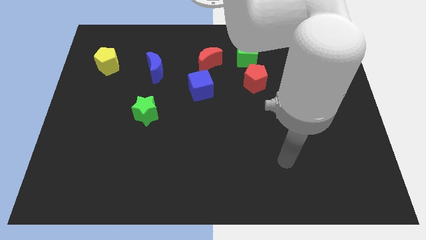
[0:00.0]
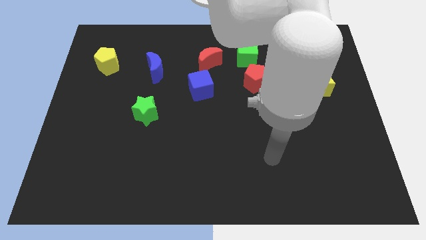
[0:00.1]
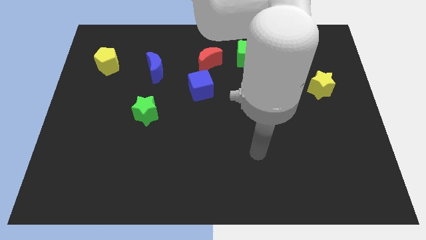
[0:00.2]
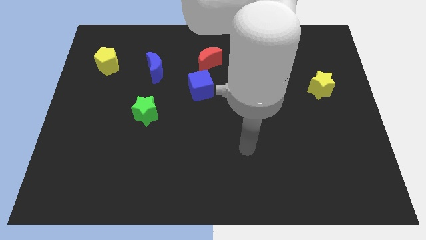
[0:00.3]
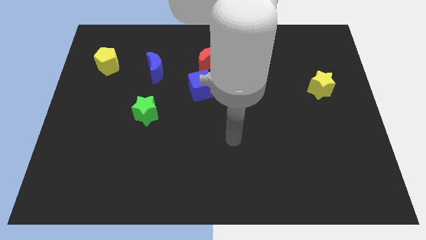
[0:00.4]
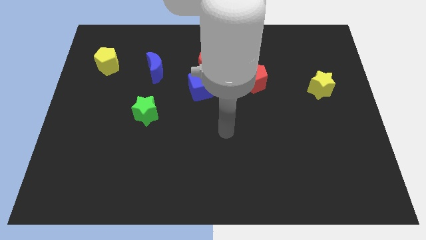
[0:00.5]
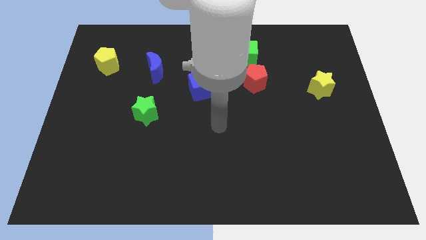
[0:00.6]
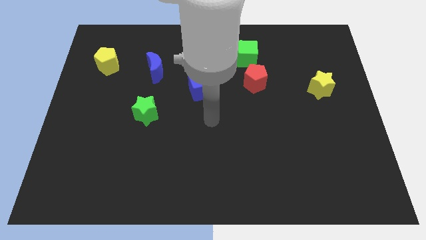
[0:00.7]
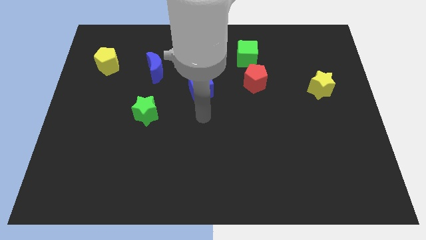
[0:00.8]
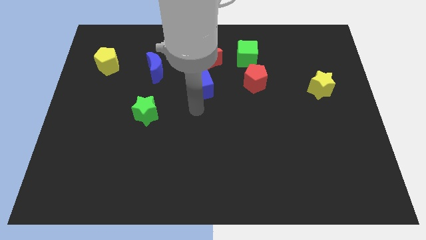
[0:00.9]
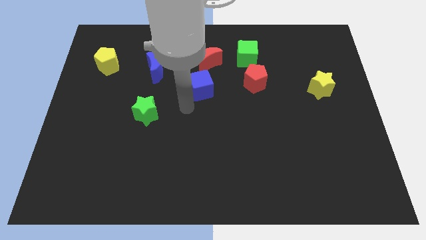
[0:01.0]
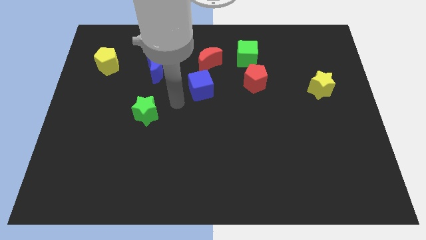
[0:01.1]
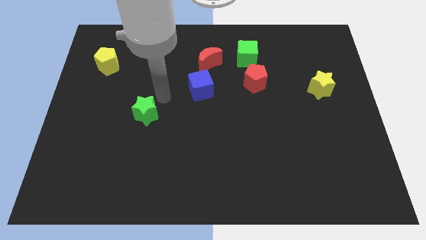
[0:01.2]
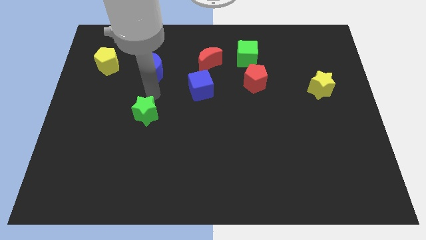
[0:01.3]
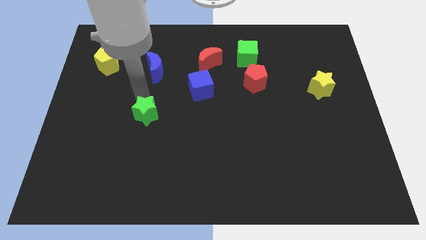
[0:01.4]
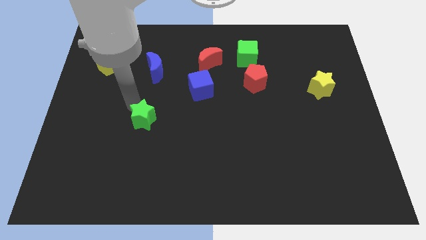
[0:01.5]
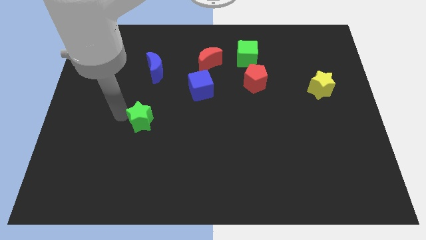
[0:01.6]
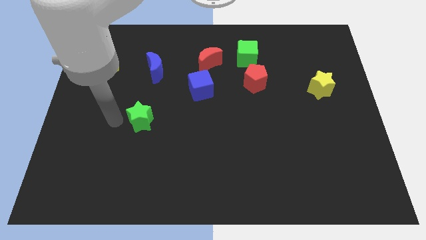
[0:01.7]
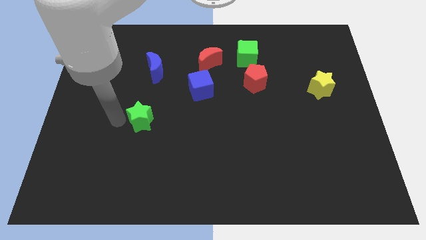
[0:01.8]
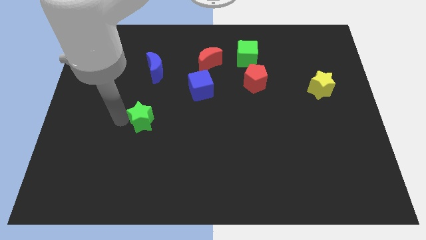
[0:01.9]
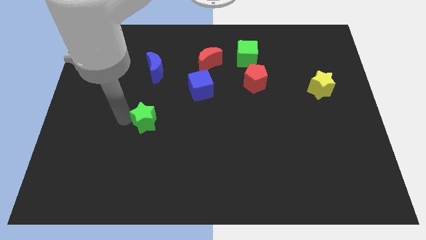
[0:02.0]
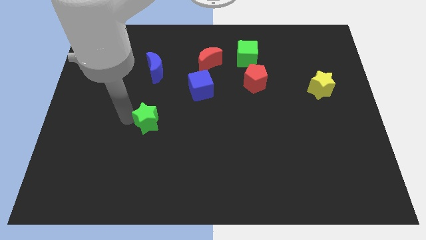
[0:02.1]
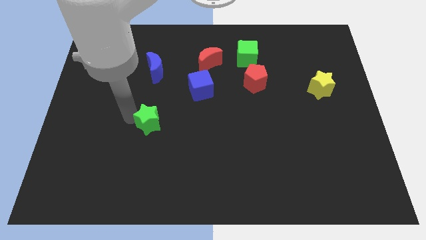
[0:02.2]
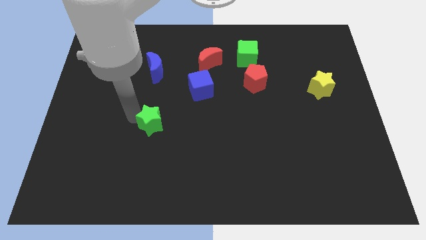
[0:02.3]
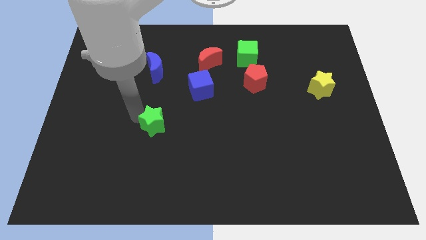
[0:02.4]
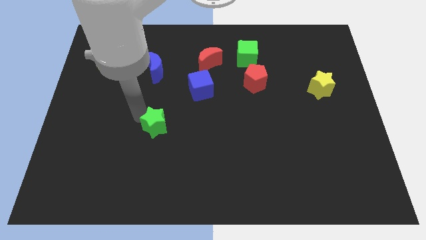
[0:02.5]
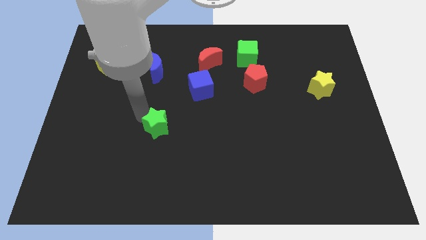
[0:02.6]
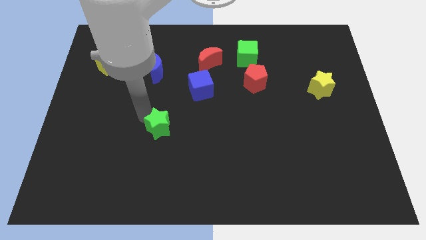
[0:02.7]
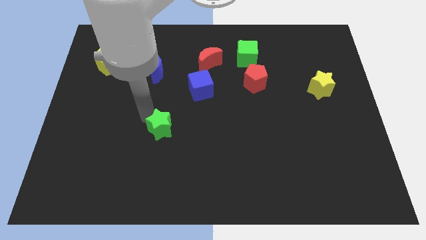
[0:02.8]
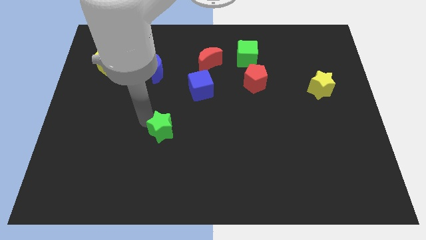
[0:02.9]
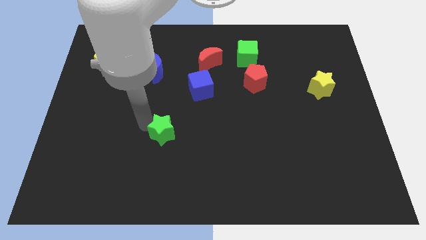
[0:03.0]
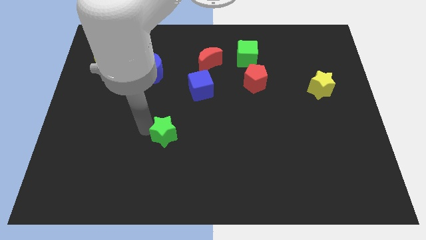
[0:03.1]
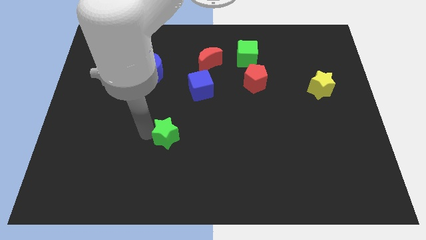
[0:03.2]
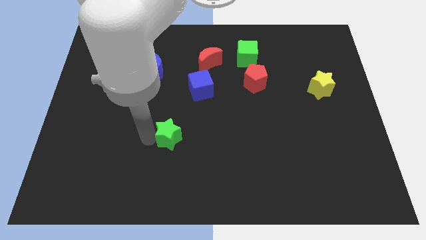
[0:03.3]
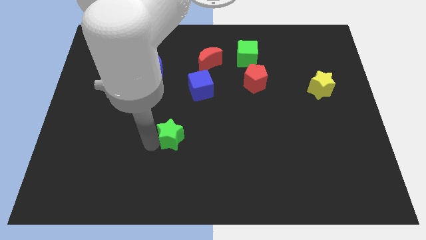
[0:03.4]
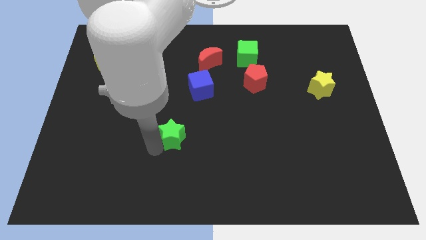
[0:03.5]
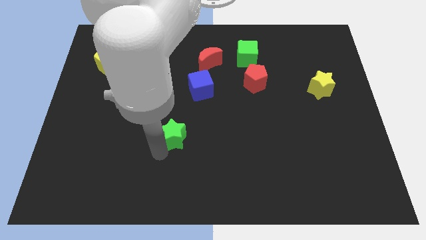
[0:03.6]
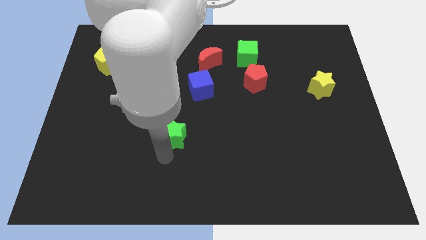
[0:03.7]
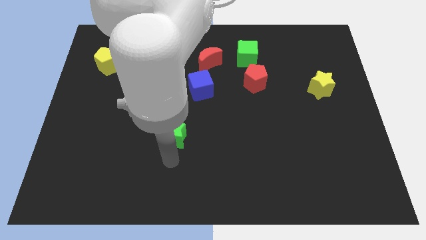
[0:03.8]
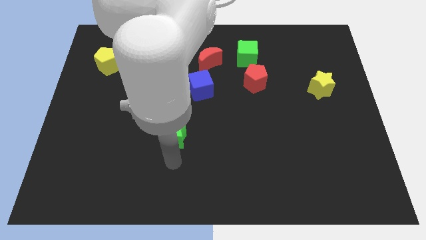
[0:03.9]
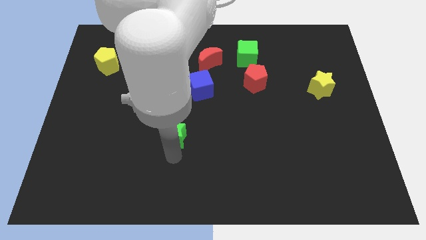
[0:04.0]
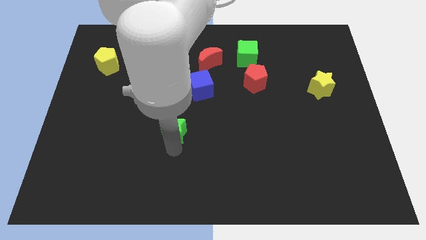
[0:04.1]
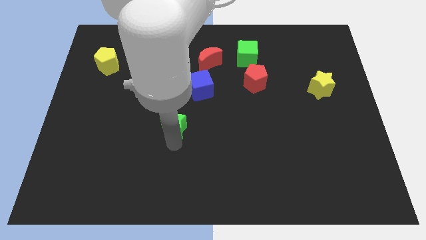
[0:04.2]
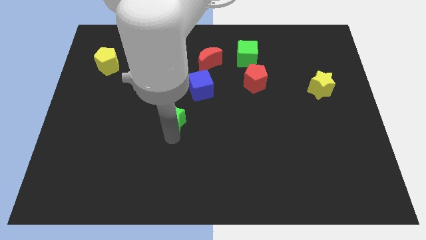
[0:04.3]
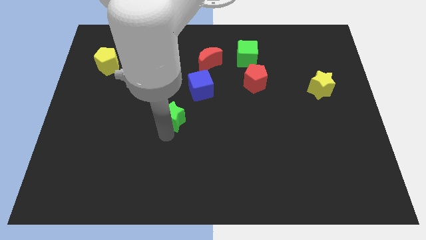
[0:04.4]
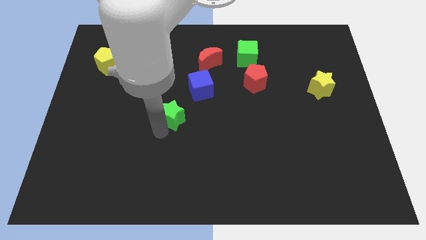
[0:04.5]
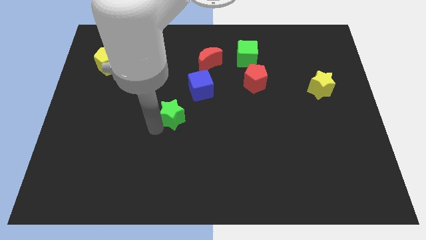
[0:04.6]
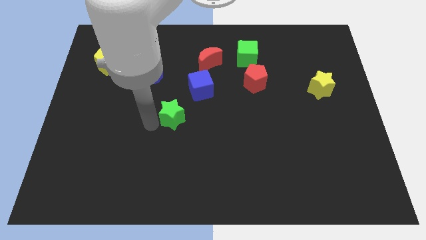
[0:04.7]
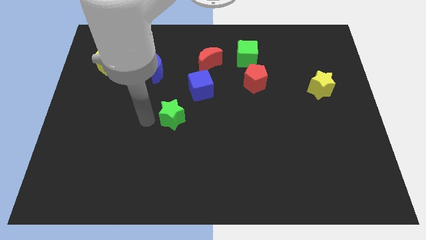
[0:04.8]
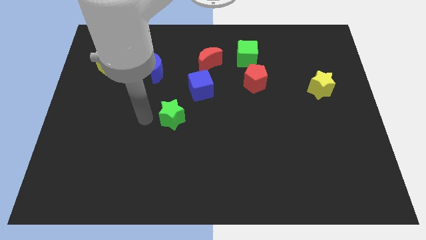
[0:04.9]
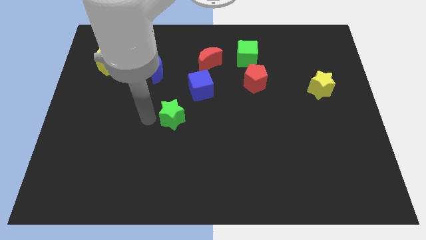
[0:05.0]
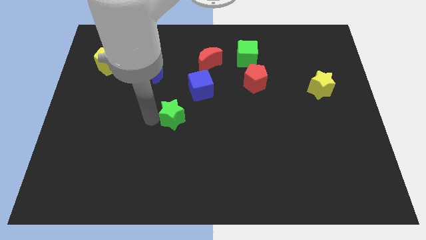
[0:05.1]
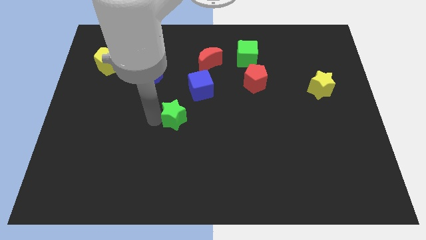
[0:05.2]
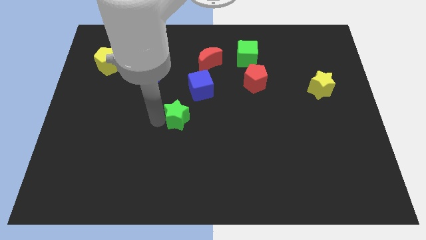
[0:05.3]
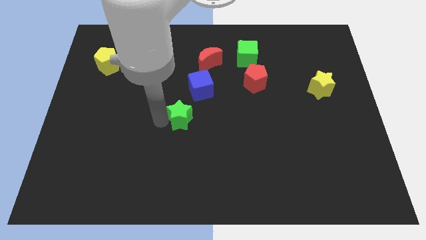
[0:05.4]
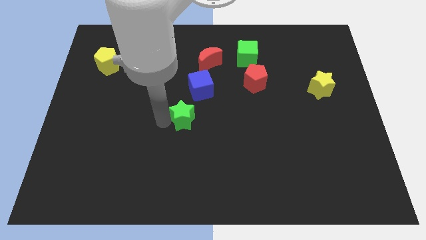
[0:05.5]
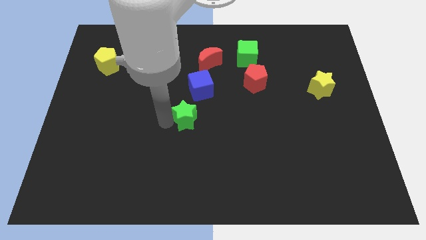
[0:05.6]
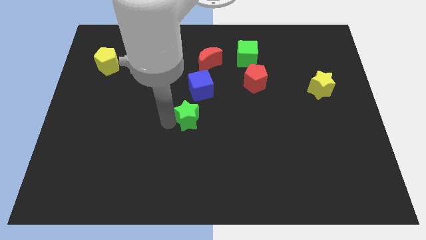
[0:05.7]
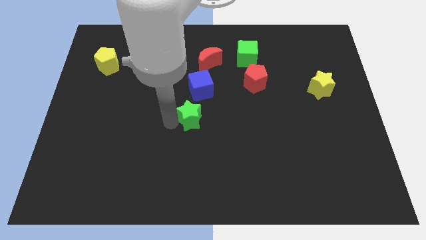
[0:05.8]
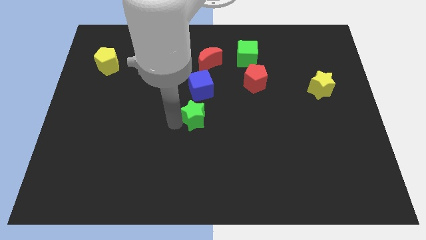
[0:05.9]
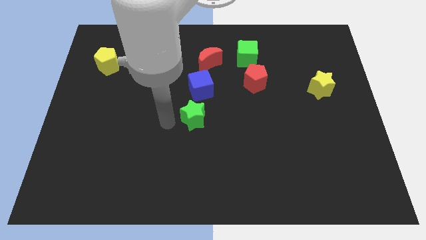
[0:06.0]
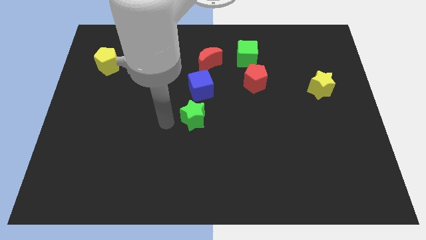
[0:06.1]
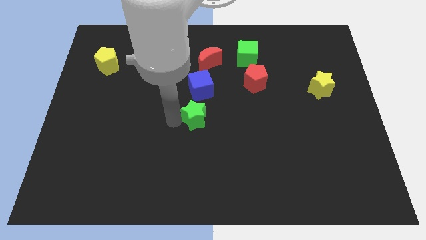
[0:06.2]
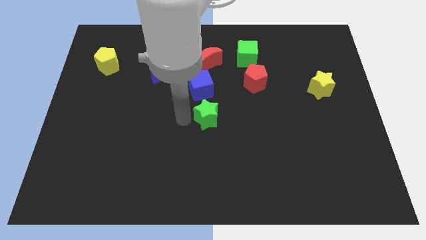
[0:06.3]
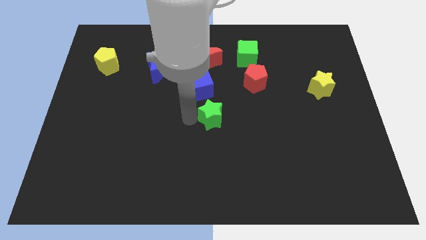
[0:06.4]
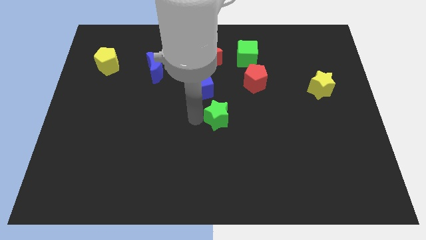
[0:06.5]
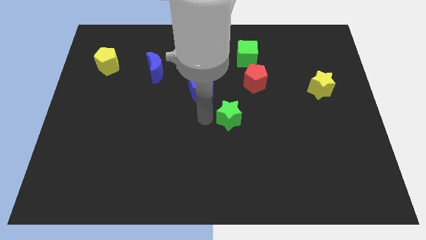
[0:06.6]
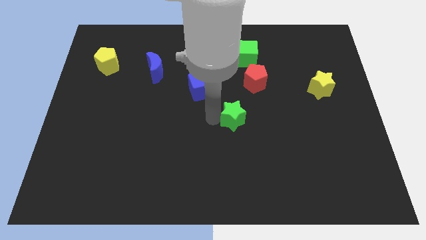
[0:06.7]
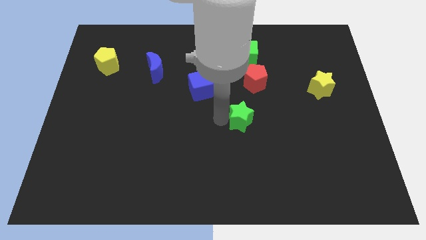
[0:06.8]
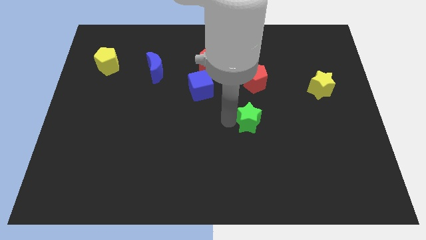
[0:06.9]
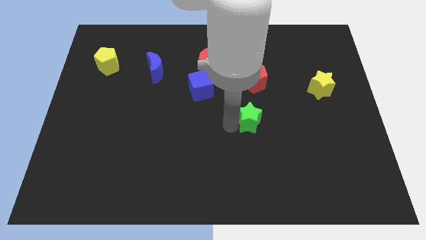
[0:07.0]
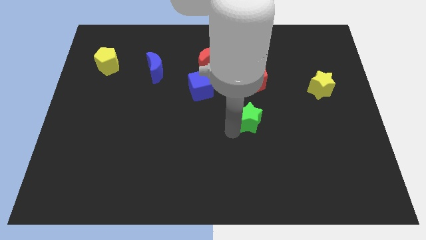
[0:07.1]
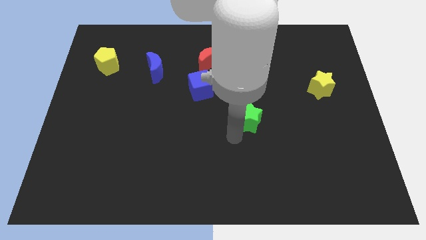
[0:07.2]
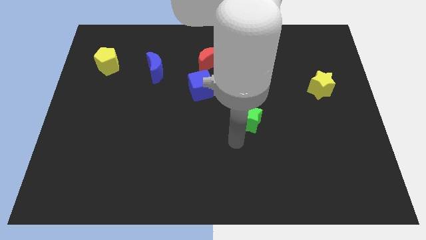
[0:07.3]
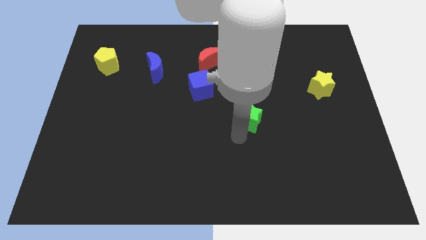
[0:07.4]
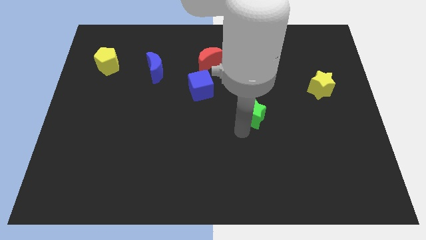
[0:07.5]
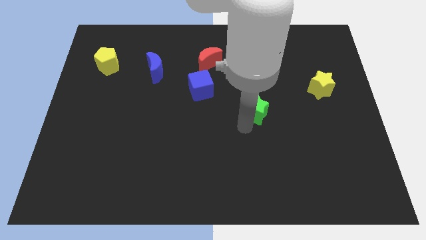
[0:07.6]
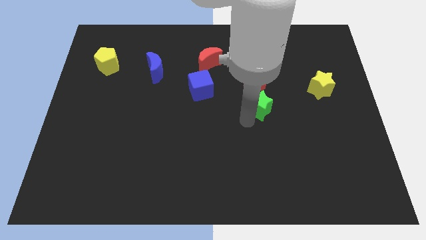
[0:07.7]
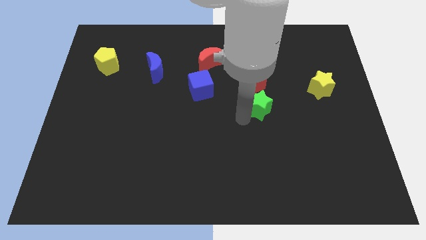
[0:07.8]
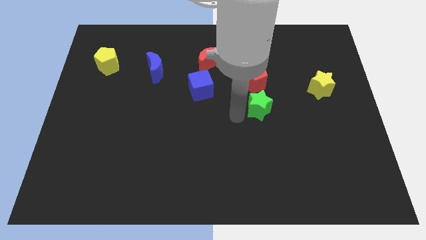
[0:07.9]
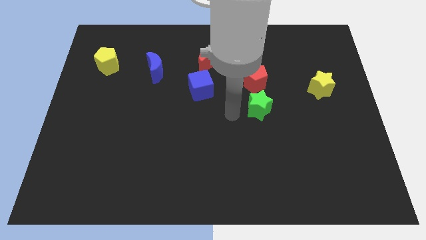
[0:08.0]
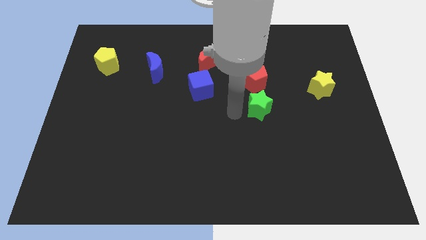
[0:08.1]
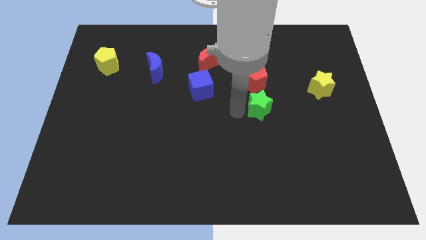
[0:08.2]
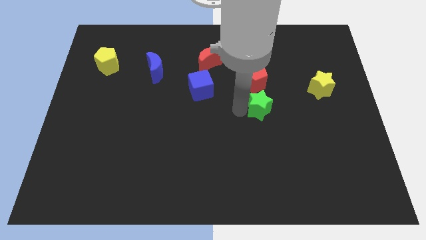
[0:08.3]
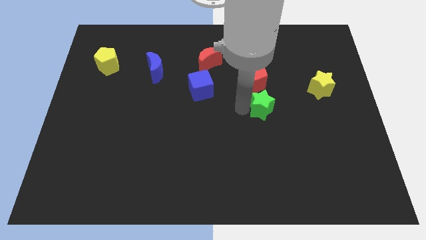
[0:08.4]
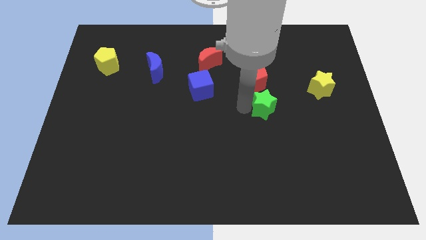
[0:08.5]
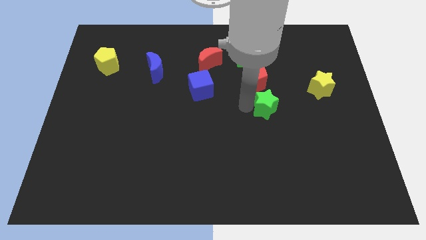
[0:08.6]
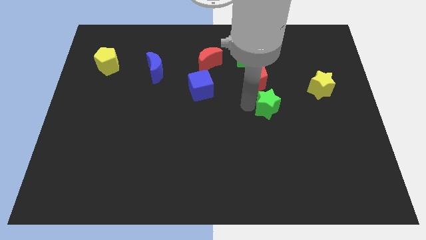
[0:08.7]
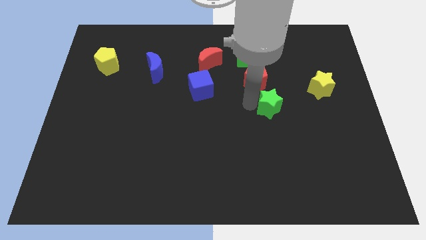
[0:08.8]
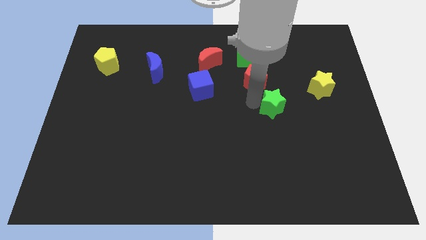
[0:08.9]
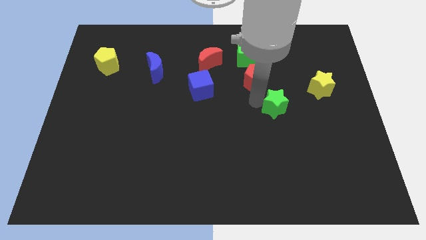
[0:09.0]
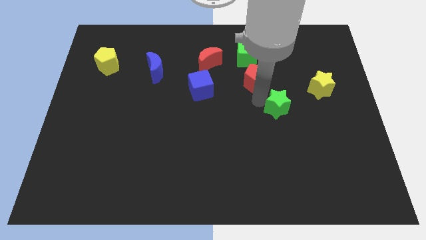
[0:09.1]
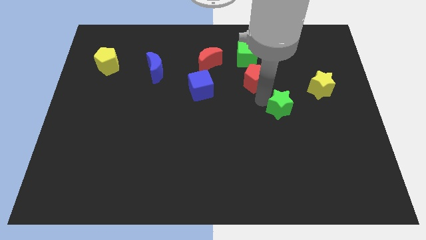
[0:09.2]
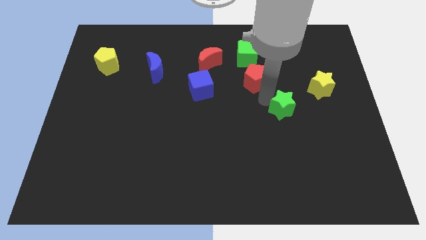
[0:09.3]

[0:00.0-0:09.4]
move the green star to the bottom left of the yellow star
